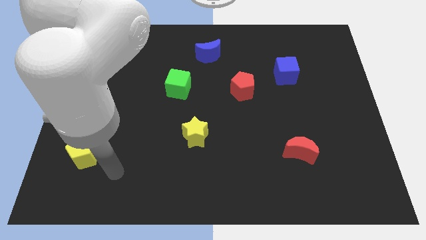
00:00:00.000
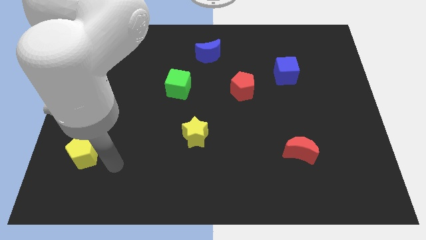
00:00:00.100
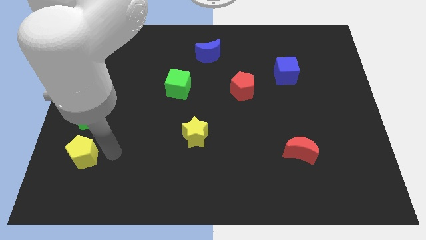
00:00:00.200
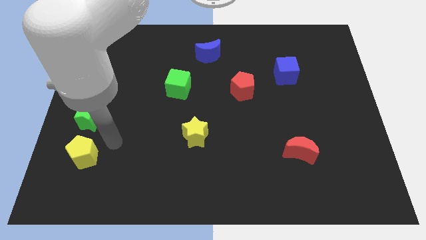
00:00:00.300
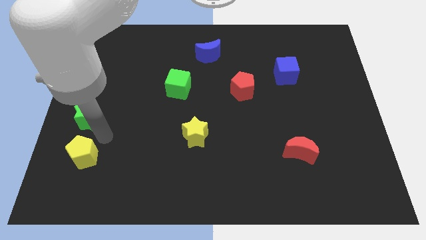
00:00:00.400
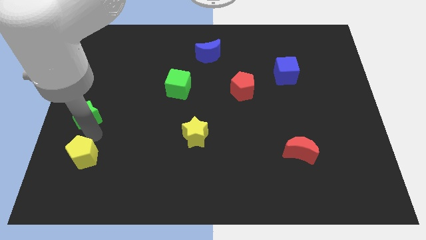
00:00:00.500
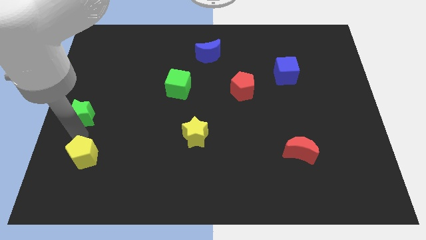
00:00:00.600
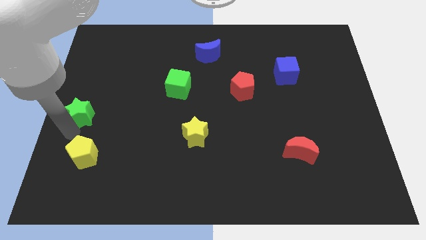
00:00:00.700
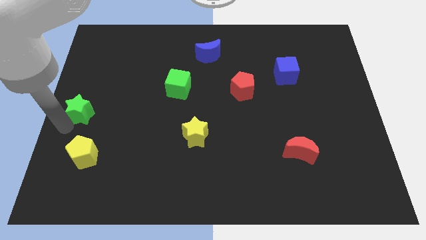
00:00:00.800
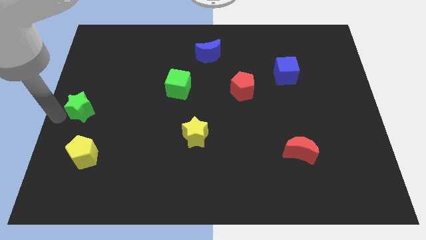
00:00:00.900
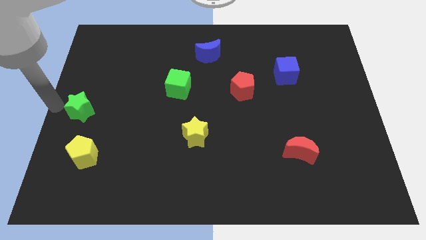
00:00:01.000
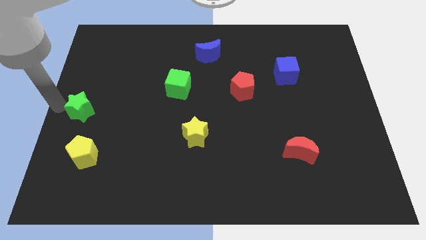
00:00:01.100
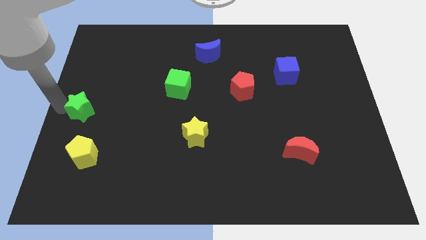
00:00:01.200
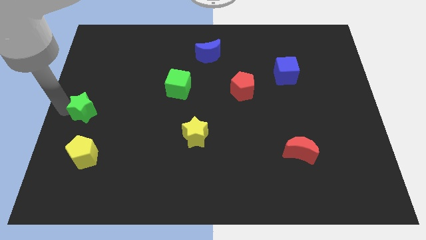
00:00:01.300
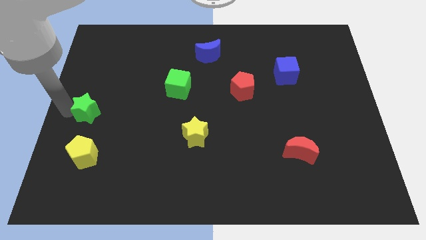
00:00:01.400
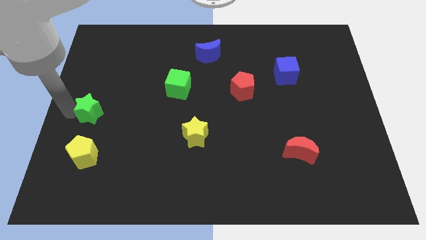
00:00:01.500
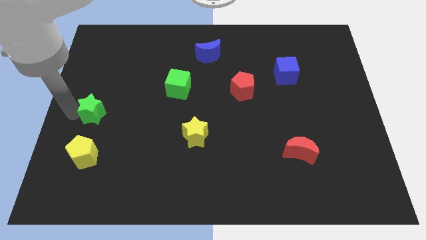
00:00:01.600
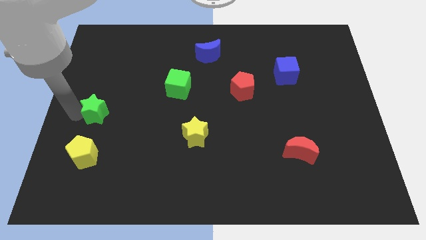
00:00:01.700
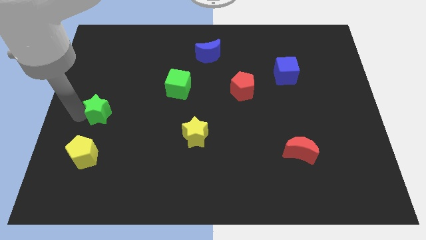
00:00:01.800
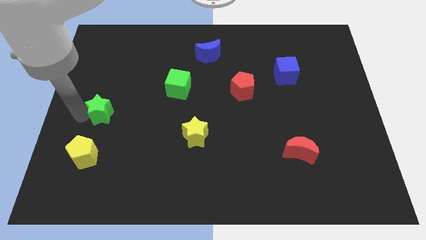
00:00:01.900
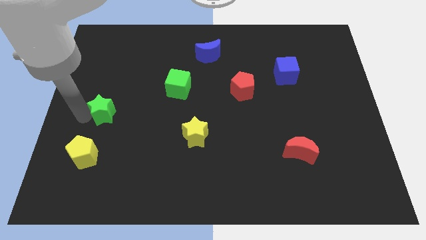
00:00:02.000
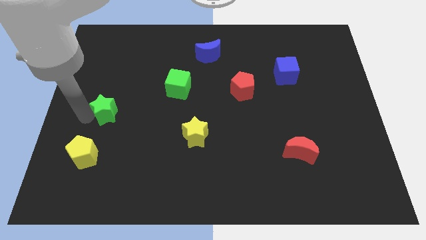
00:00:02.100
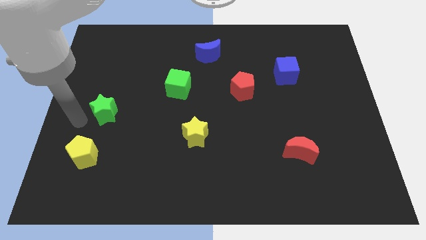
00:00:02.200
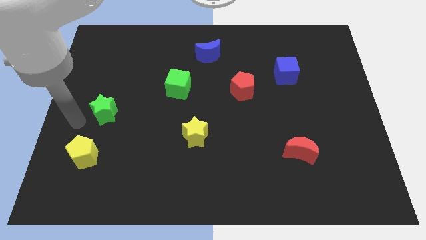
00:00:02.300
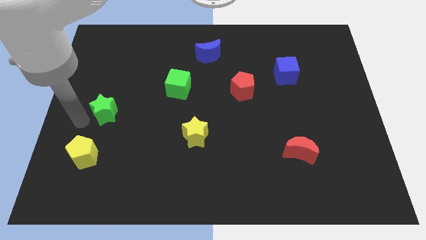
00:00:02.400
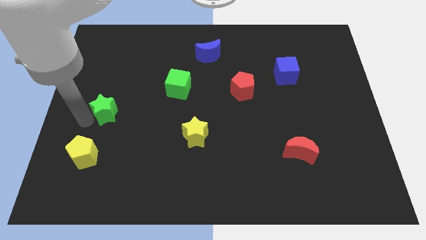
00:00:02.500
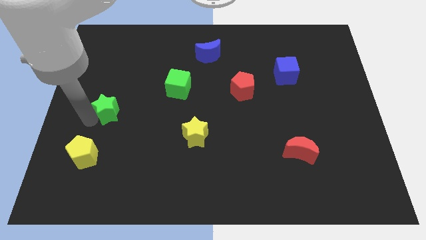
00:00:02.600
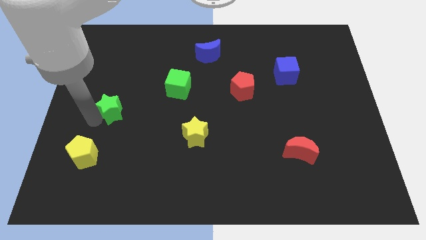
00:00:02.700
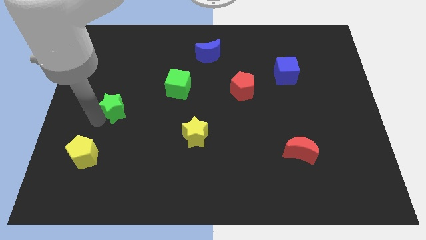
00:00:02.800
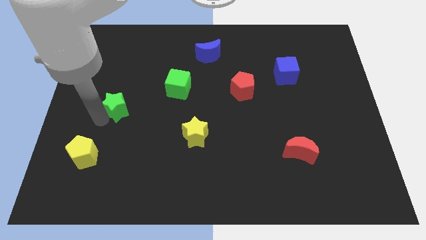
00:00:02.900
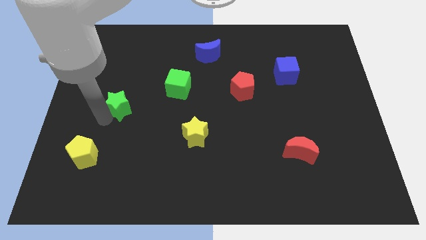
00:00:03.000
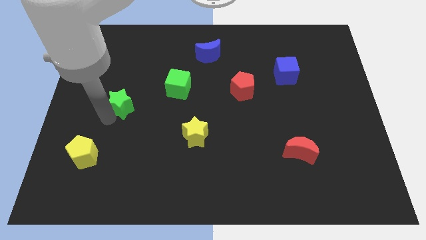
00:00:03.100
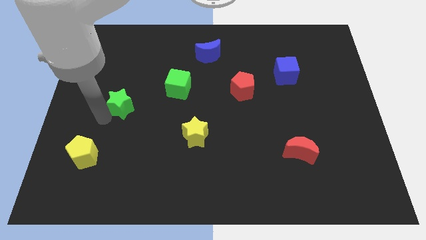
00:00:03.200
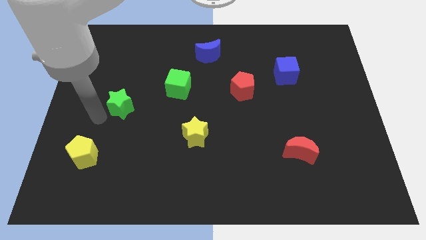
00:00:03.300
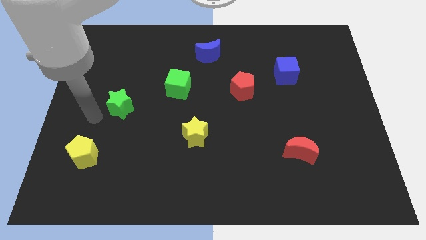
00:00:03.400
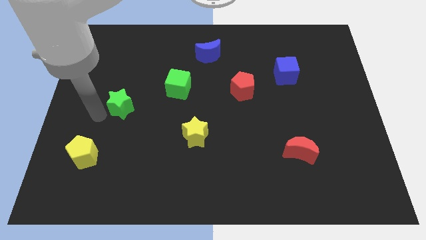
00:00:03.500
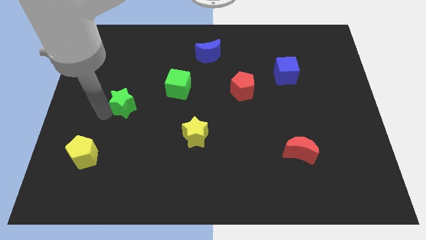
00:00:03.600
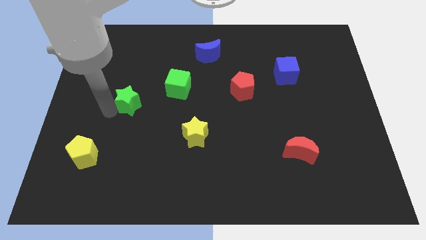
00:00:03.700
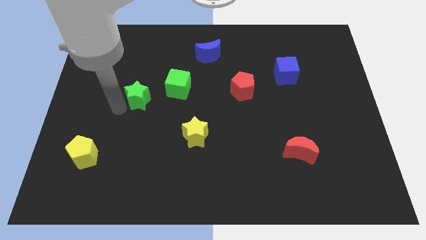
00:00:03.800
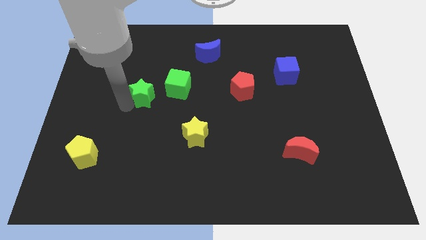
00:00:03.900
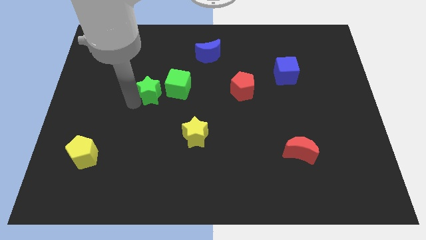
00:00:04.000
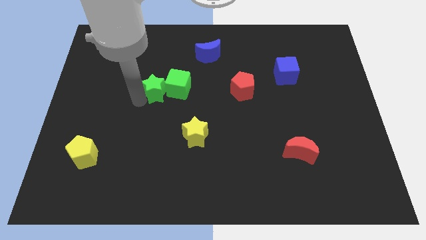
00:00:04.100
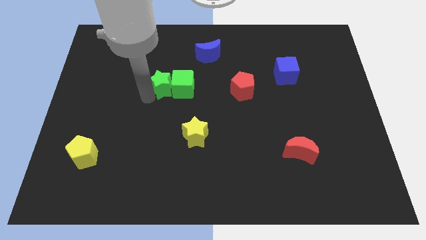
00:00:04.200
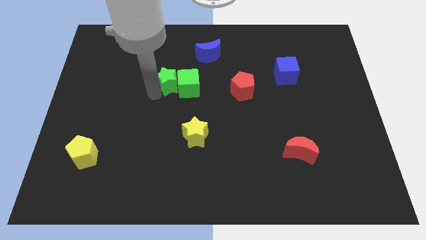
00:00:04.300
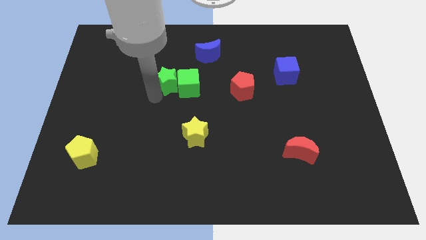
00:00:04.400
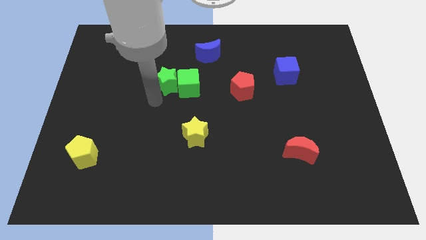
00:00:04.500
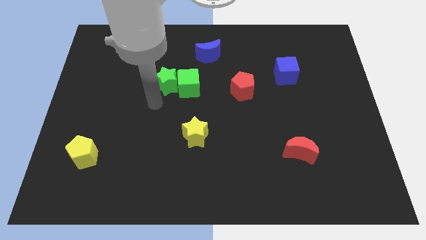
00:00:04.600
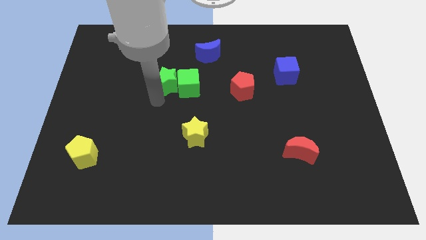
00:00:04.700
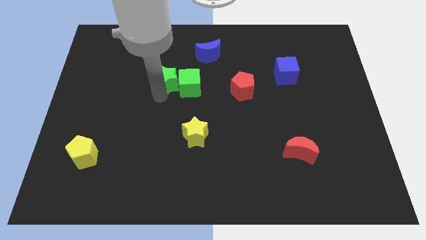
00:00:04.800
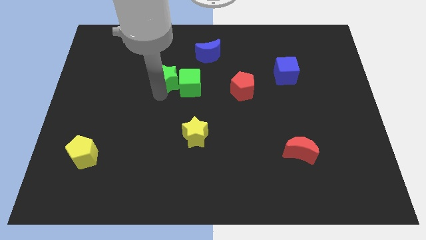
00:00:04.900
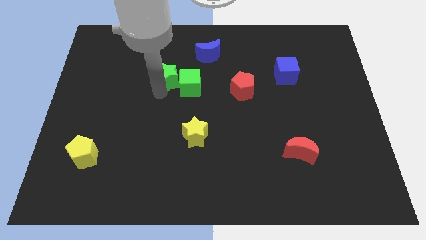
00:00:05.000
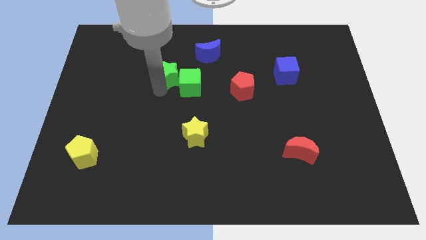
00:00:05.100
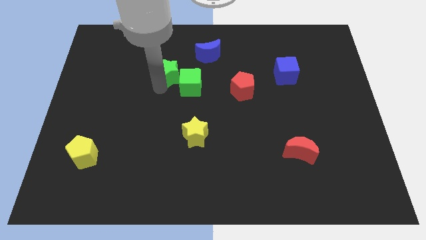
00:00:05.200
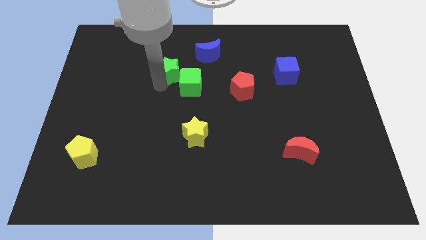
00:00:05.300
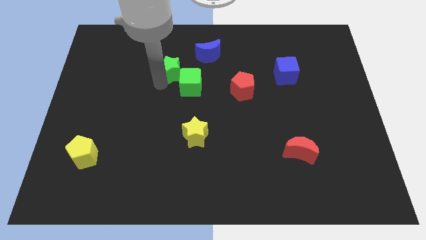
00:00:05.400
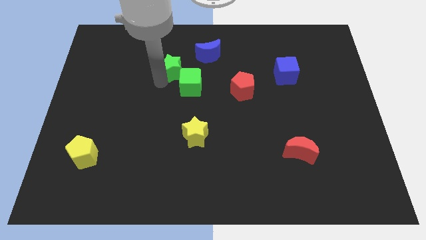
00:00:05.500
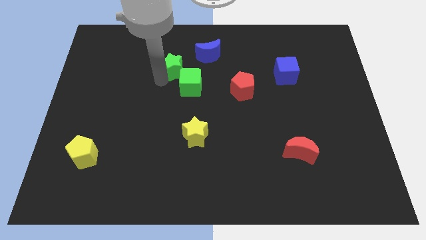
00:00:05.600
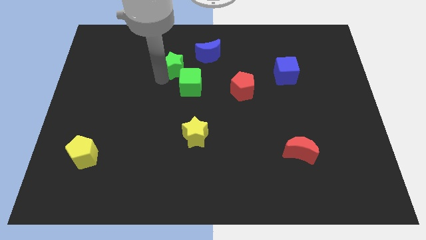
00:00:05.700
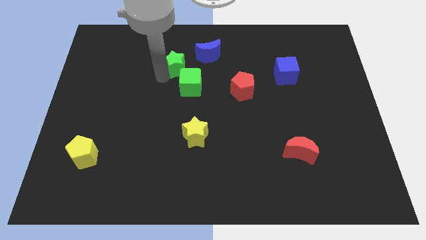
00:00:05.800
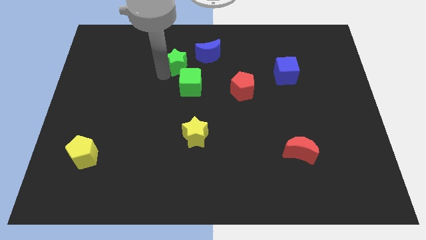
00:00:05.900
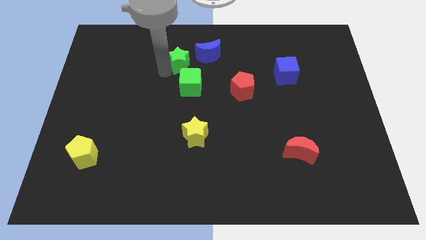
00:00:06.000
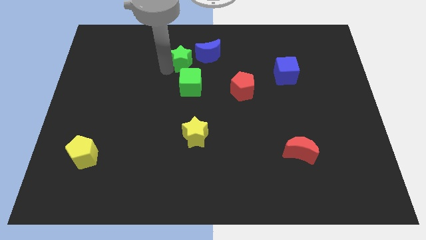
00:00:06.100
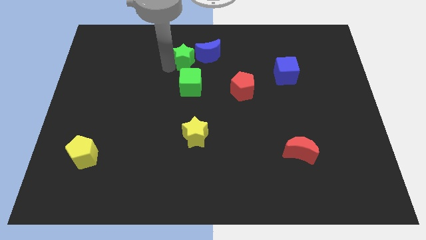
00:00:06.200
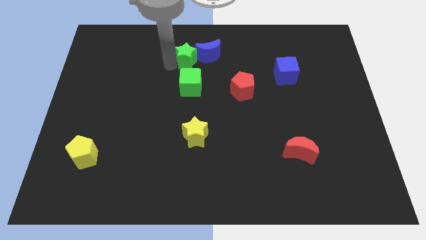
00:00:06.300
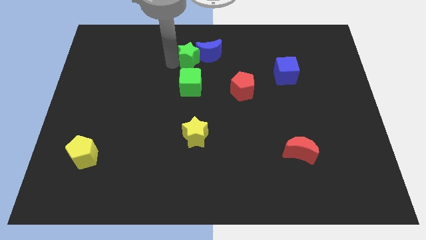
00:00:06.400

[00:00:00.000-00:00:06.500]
push the green star towards the blue moon

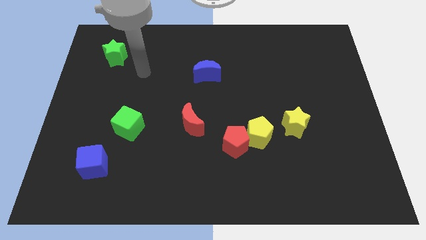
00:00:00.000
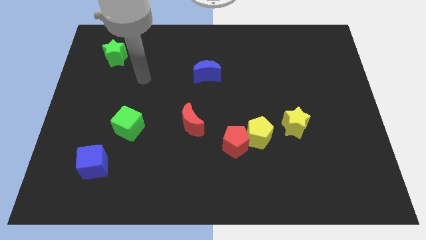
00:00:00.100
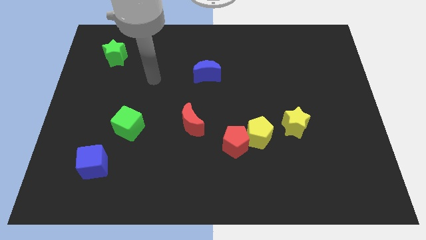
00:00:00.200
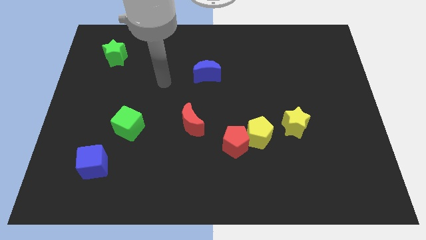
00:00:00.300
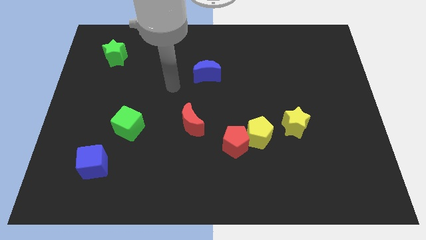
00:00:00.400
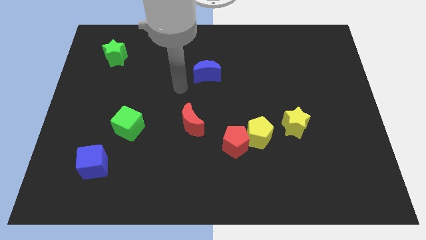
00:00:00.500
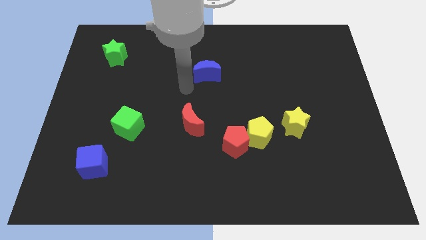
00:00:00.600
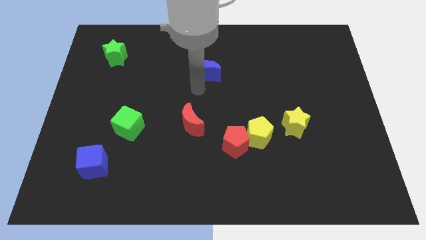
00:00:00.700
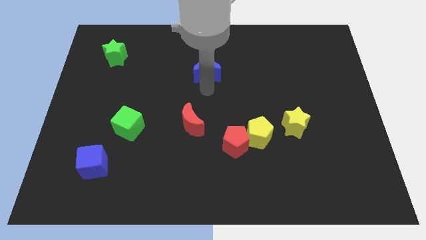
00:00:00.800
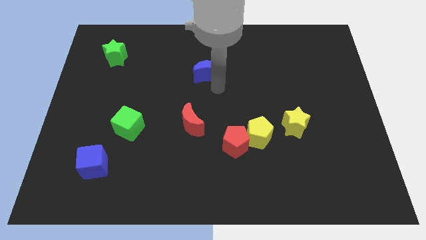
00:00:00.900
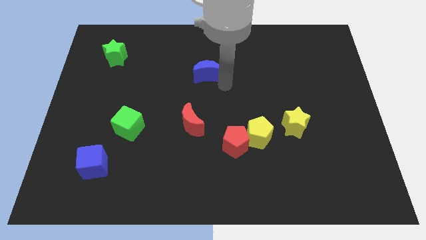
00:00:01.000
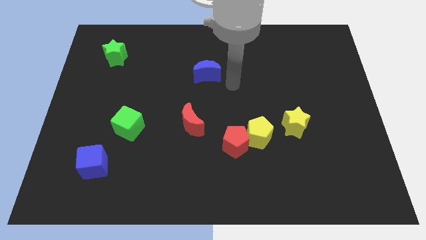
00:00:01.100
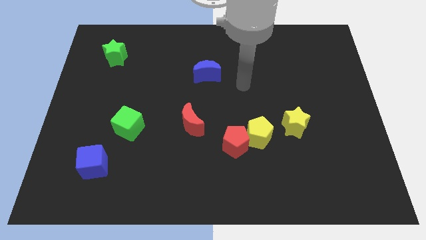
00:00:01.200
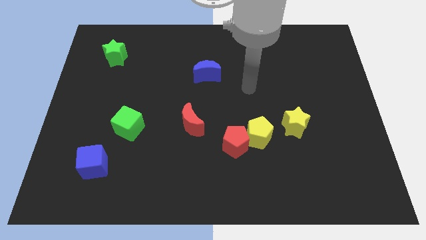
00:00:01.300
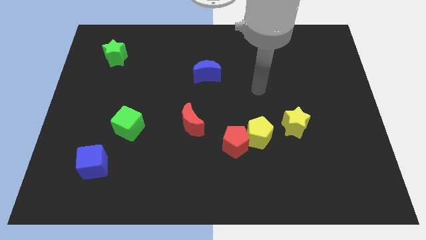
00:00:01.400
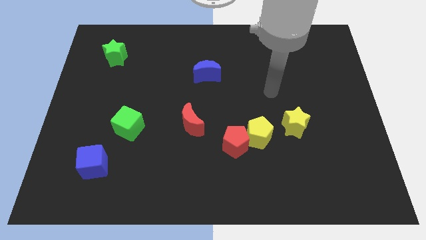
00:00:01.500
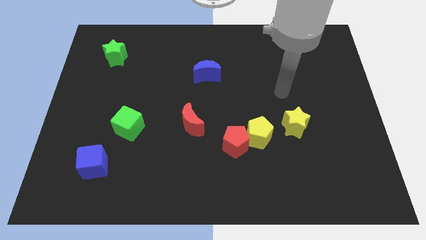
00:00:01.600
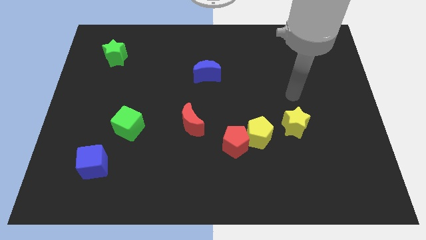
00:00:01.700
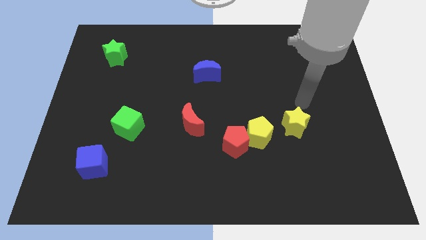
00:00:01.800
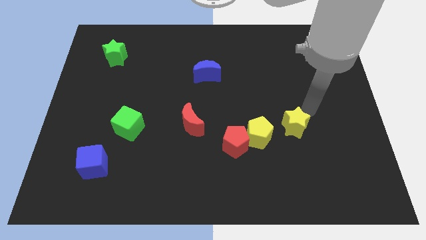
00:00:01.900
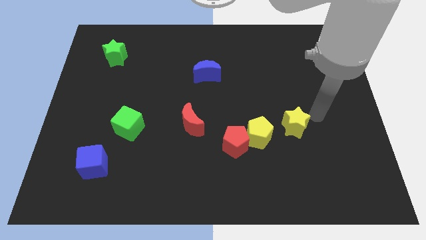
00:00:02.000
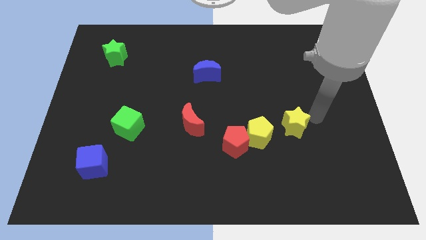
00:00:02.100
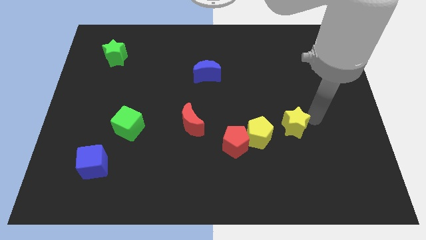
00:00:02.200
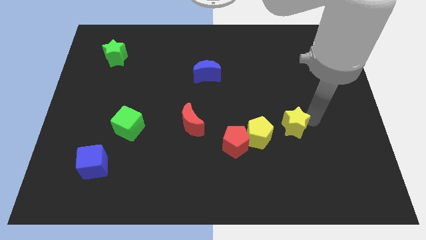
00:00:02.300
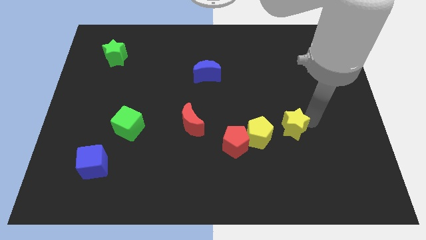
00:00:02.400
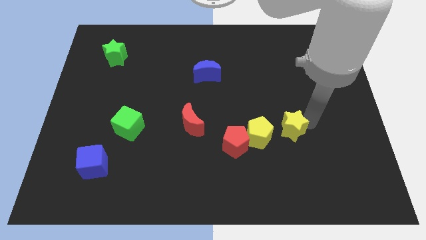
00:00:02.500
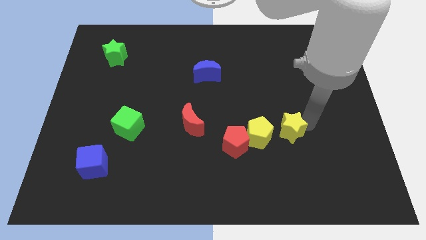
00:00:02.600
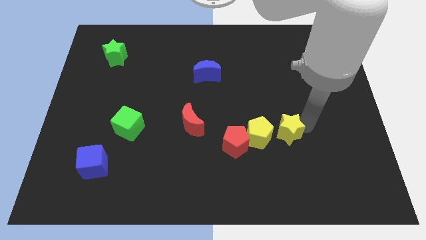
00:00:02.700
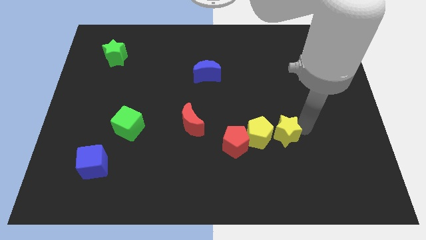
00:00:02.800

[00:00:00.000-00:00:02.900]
put the yellow star next to the yellow pentagon
